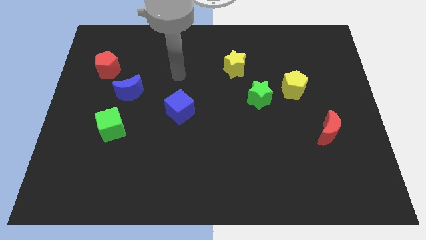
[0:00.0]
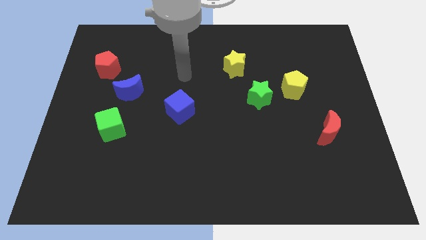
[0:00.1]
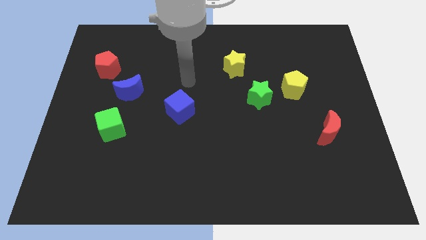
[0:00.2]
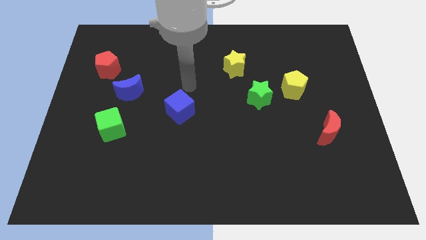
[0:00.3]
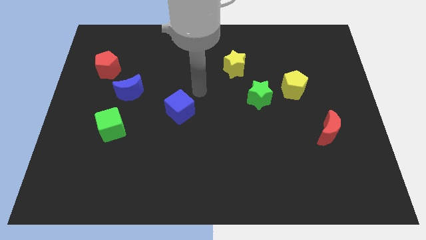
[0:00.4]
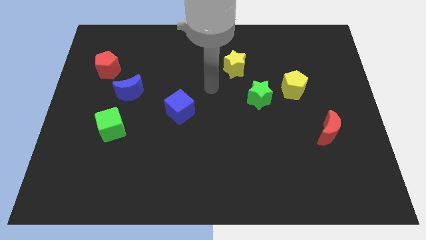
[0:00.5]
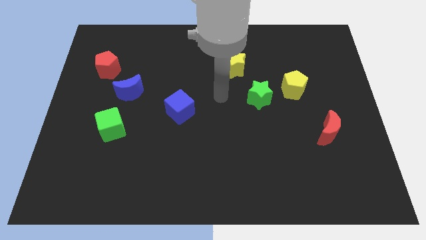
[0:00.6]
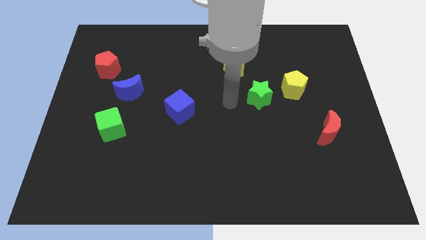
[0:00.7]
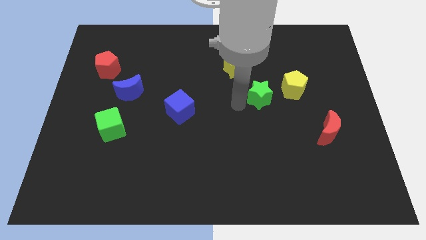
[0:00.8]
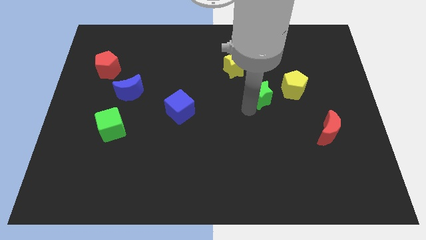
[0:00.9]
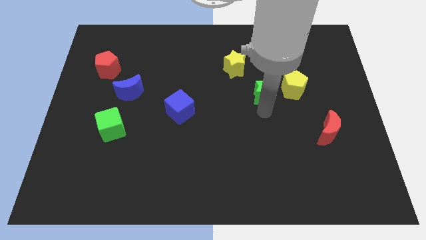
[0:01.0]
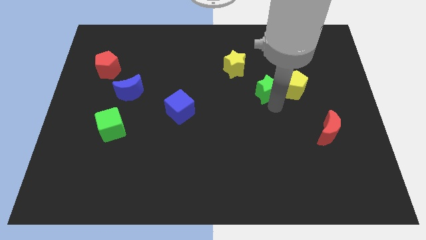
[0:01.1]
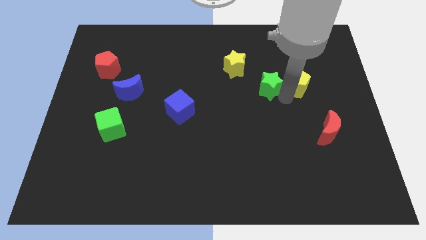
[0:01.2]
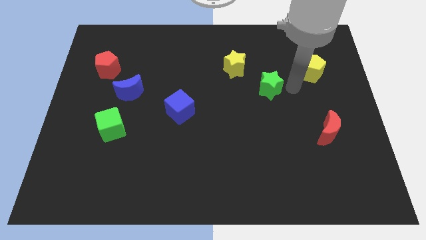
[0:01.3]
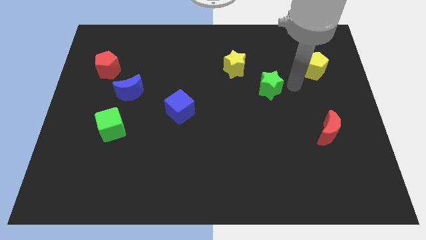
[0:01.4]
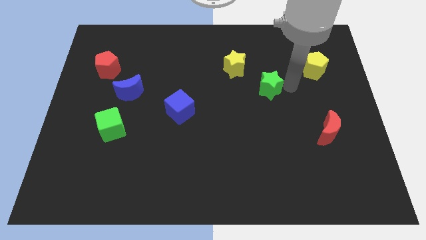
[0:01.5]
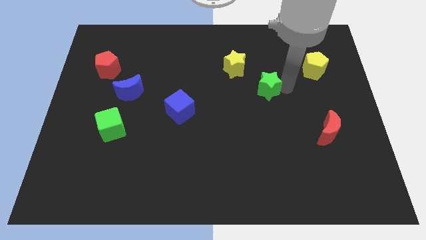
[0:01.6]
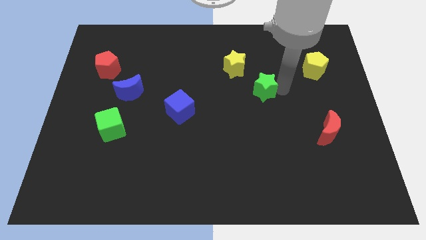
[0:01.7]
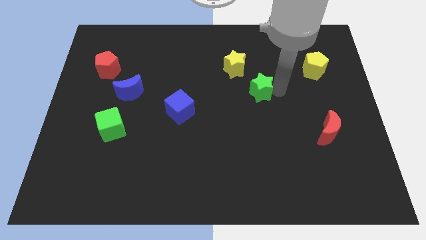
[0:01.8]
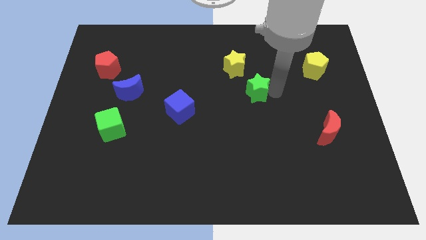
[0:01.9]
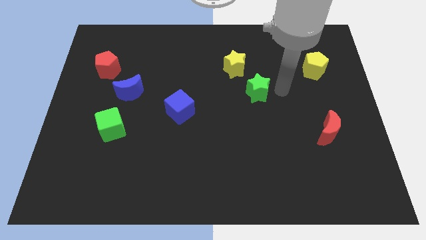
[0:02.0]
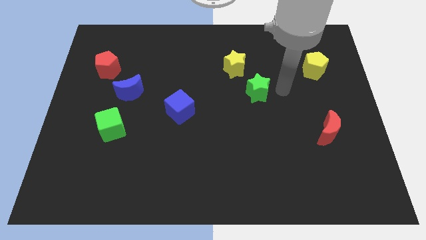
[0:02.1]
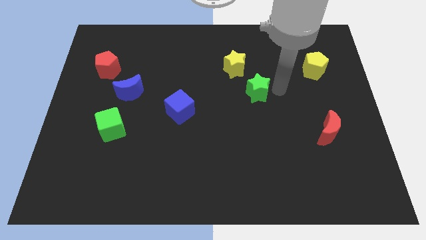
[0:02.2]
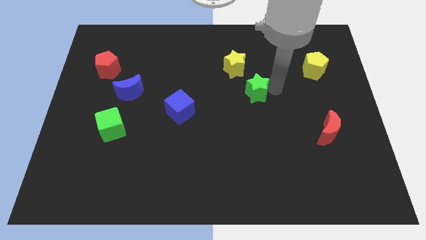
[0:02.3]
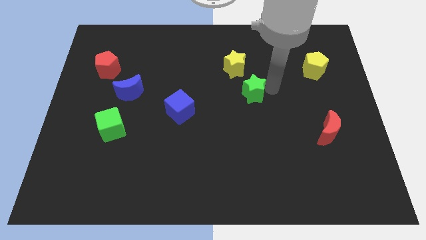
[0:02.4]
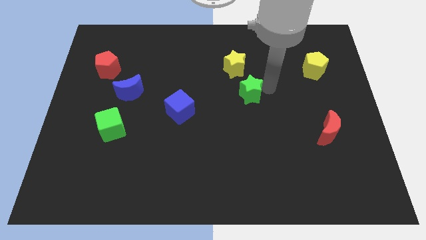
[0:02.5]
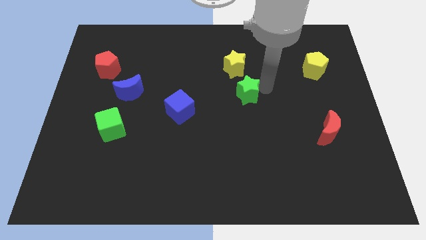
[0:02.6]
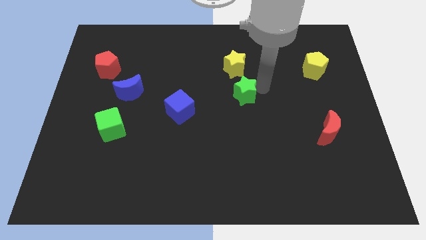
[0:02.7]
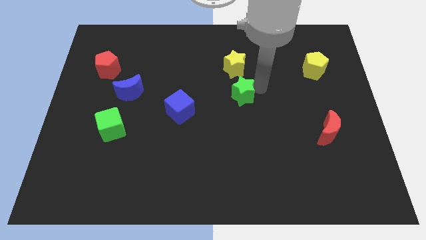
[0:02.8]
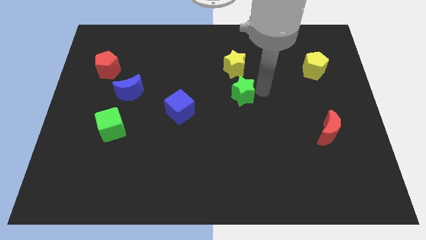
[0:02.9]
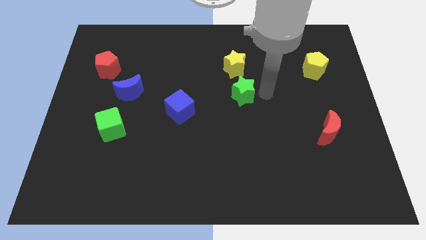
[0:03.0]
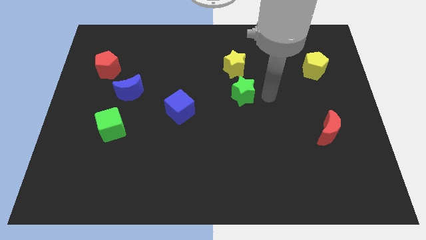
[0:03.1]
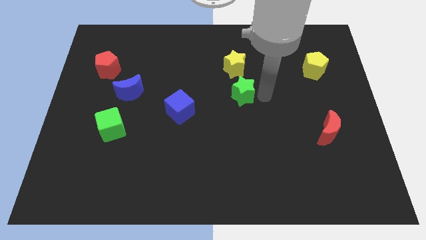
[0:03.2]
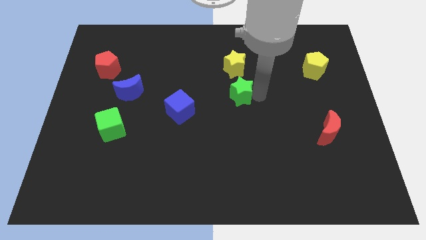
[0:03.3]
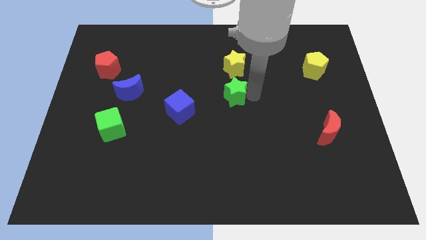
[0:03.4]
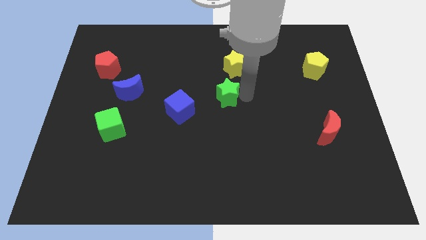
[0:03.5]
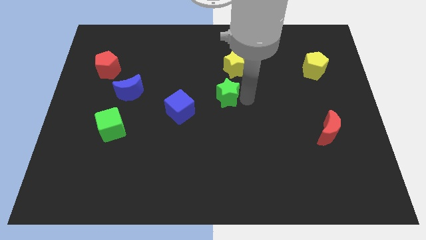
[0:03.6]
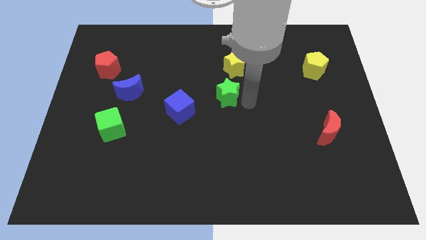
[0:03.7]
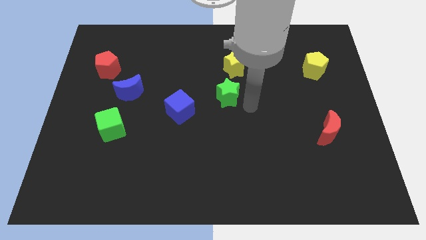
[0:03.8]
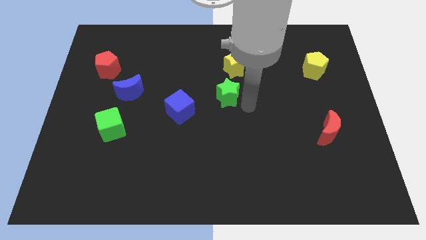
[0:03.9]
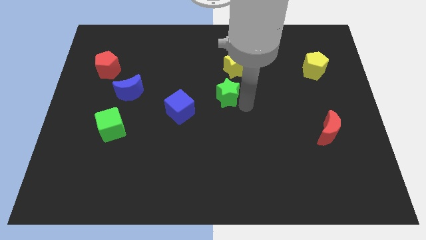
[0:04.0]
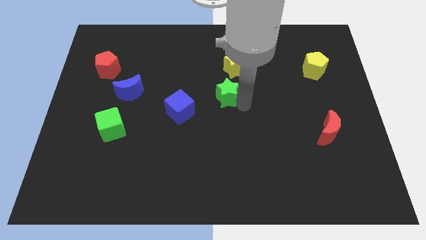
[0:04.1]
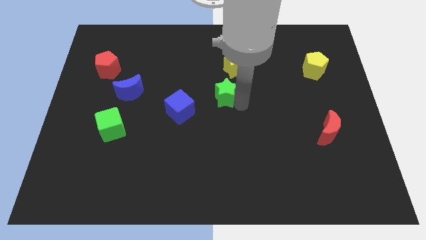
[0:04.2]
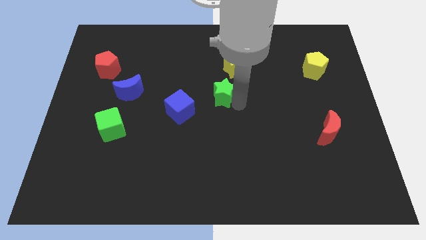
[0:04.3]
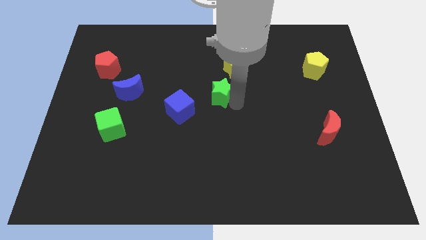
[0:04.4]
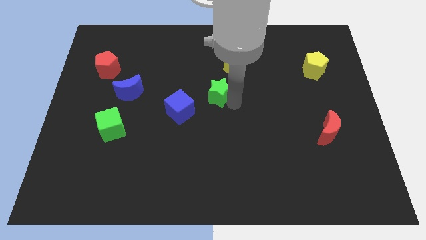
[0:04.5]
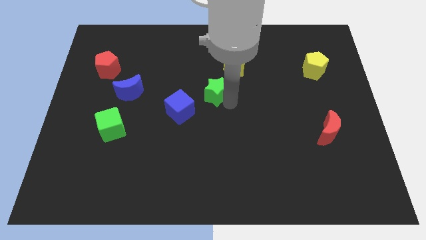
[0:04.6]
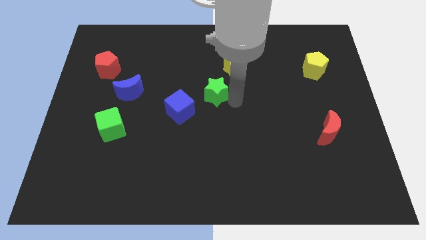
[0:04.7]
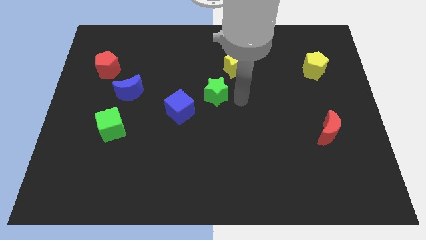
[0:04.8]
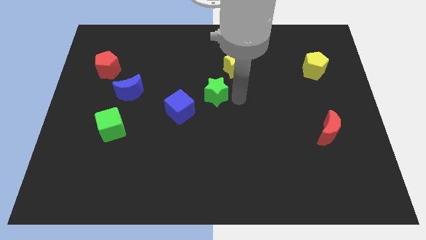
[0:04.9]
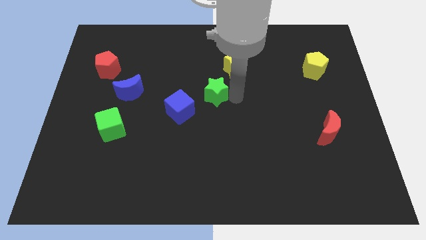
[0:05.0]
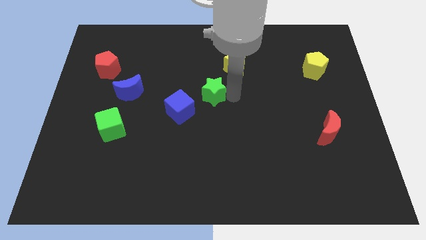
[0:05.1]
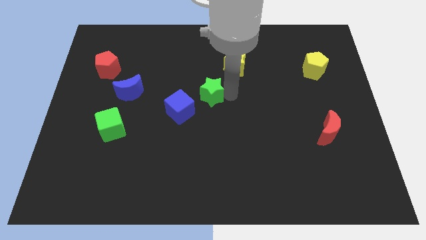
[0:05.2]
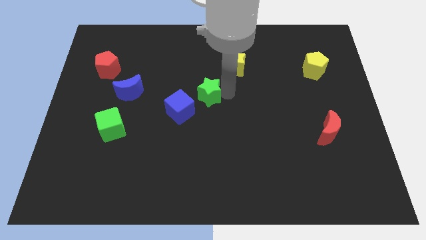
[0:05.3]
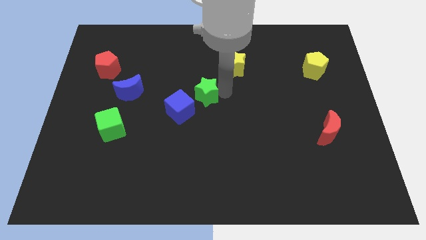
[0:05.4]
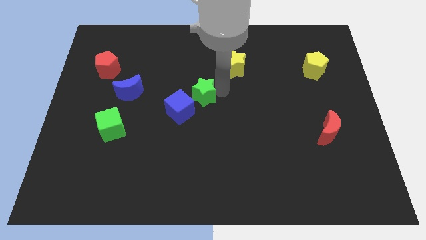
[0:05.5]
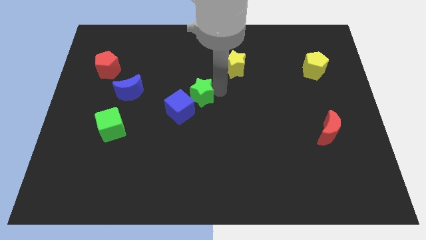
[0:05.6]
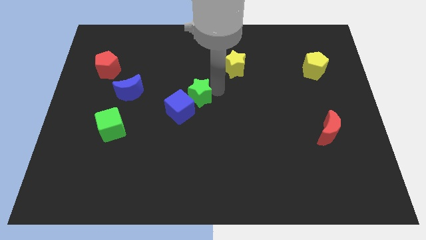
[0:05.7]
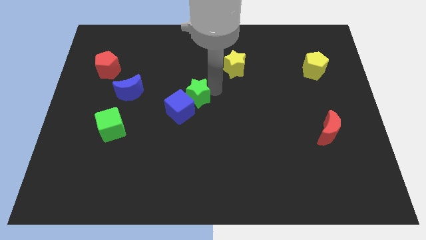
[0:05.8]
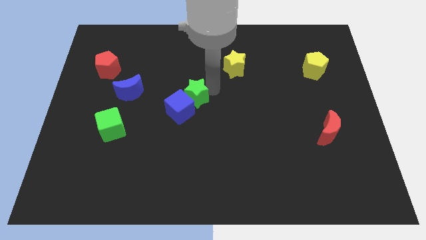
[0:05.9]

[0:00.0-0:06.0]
push the green star just right of the blue moon

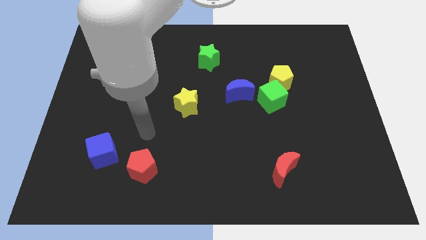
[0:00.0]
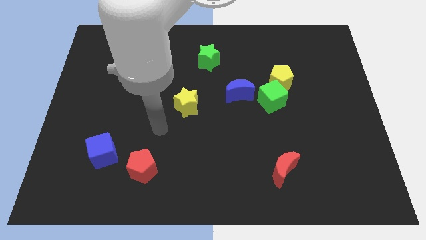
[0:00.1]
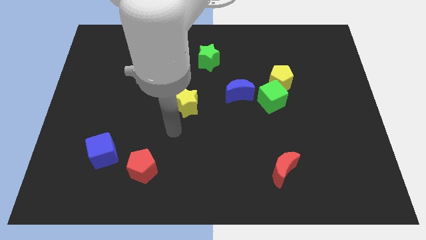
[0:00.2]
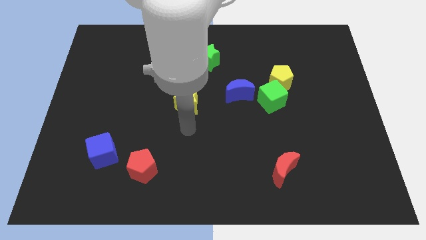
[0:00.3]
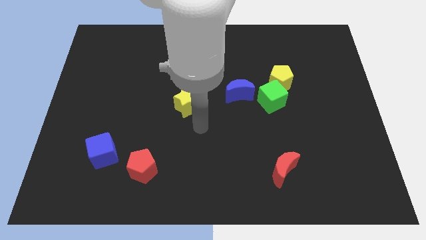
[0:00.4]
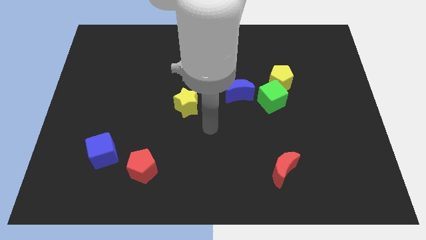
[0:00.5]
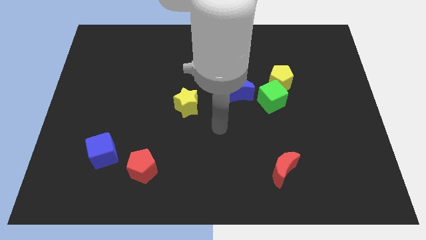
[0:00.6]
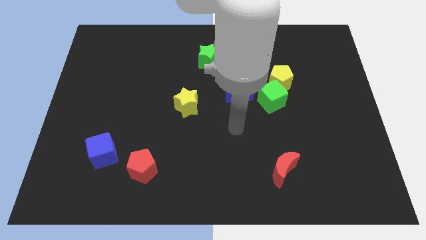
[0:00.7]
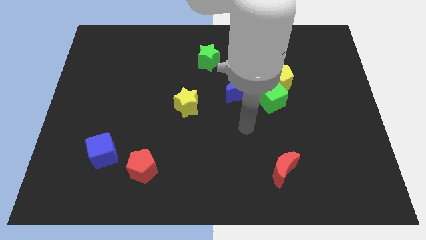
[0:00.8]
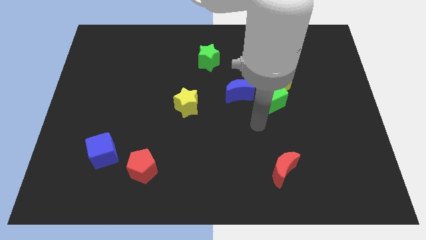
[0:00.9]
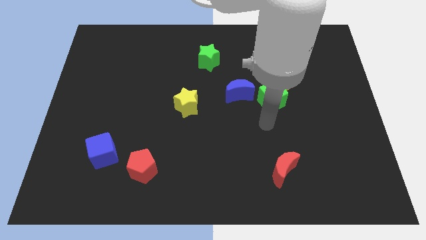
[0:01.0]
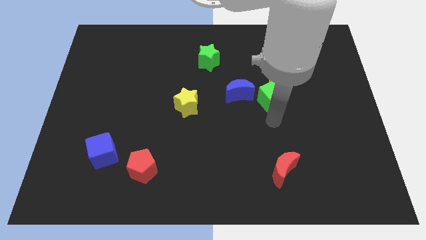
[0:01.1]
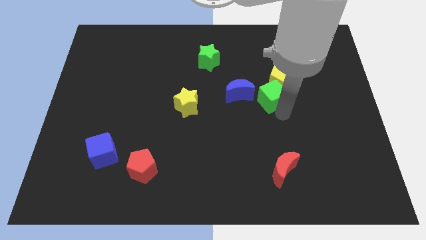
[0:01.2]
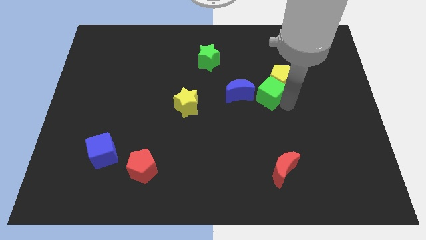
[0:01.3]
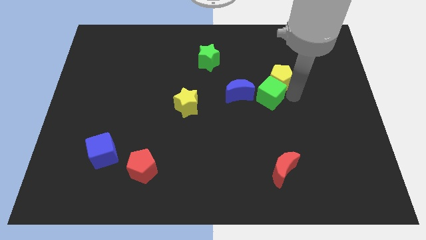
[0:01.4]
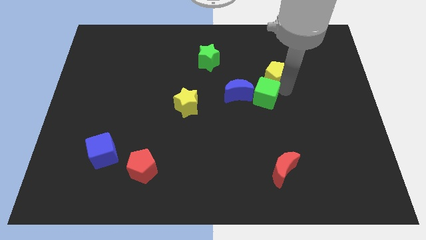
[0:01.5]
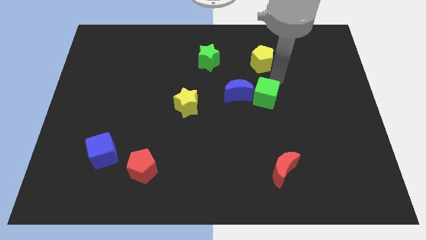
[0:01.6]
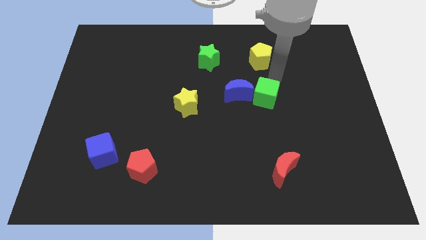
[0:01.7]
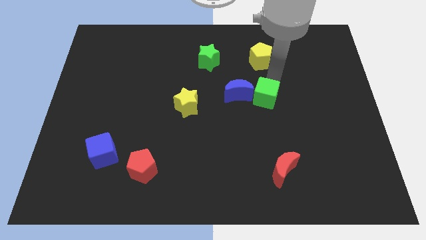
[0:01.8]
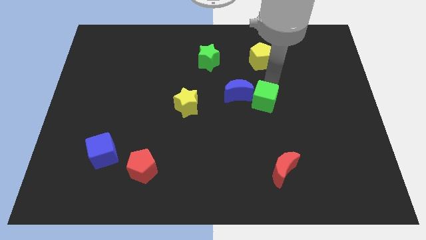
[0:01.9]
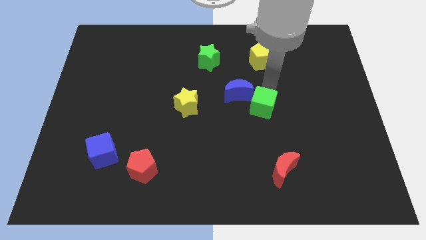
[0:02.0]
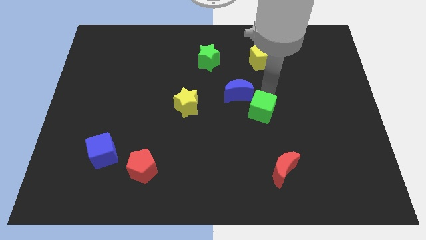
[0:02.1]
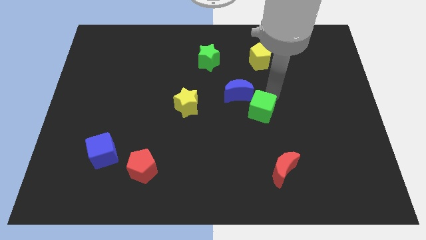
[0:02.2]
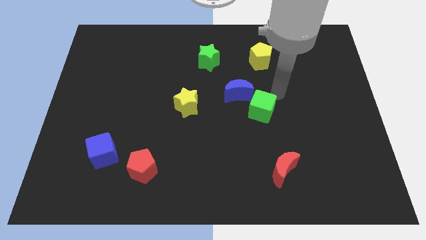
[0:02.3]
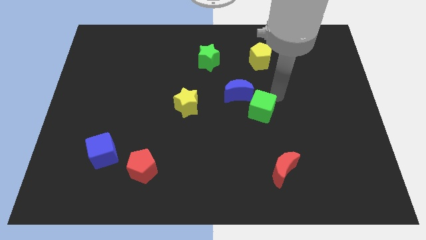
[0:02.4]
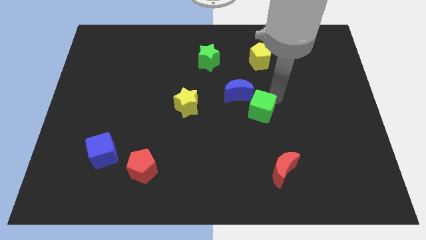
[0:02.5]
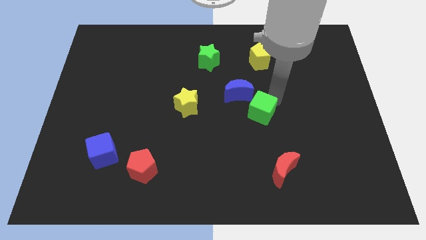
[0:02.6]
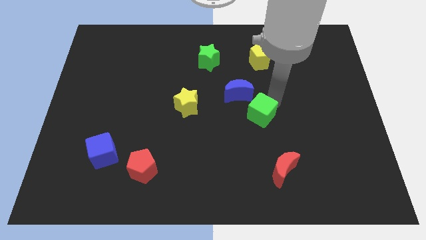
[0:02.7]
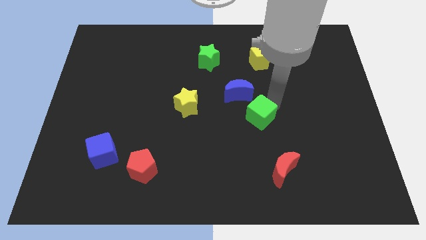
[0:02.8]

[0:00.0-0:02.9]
move the green cube to the bottom side of the blue moon

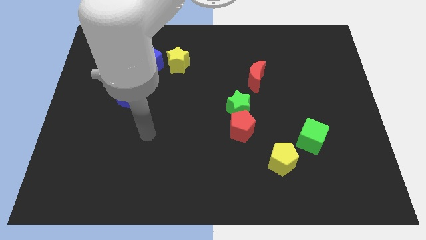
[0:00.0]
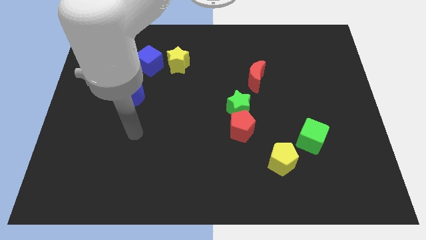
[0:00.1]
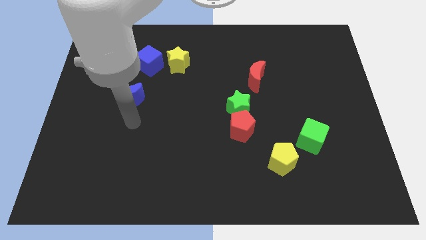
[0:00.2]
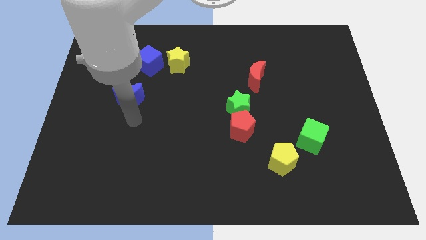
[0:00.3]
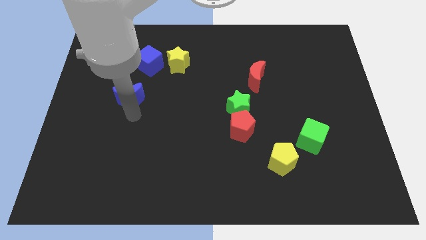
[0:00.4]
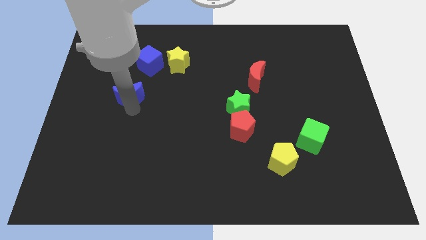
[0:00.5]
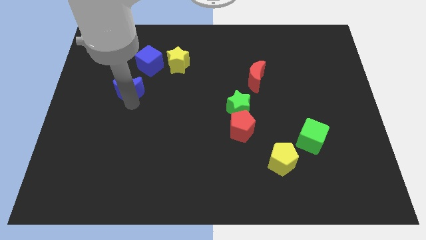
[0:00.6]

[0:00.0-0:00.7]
slide the blue moon to the bottom left of the blue cube
